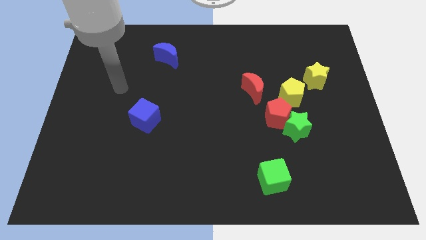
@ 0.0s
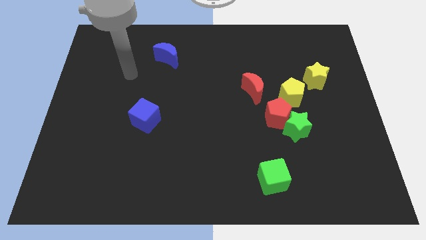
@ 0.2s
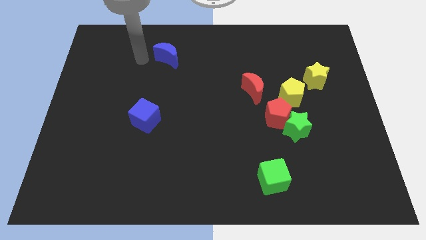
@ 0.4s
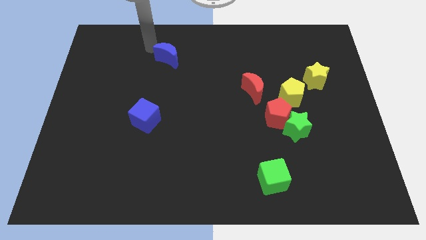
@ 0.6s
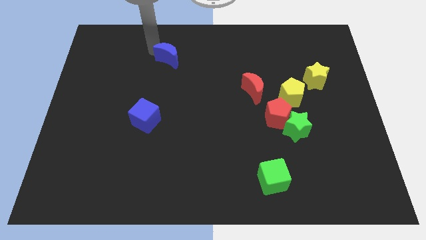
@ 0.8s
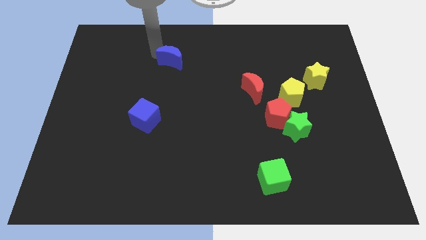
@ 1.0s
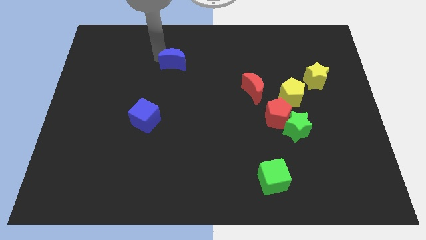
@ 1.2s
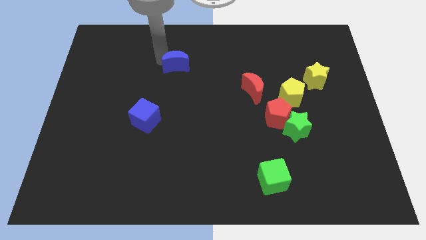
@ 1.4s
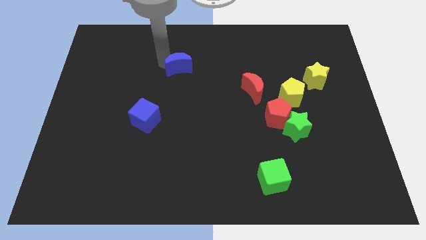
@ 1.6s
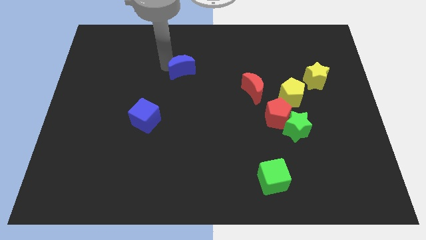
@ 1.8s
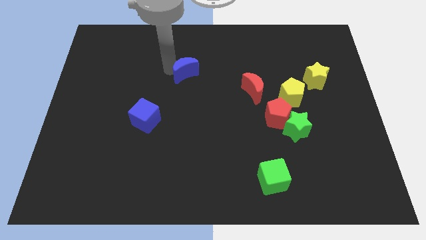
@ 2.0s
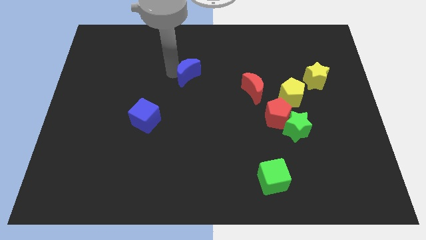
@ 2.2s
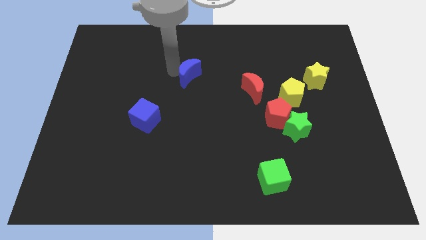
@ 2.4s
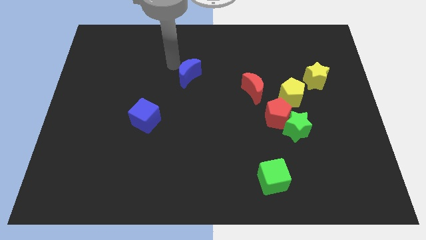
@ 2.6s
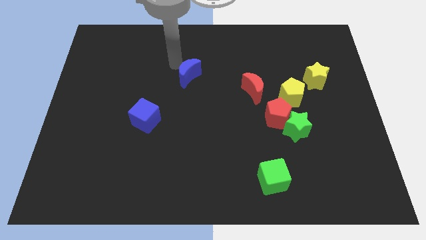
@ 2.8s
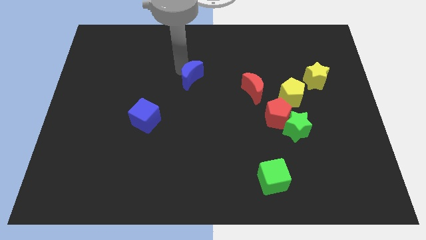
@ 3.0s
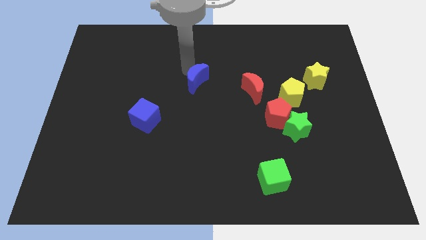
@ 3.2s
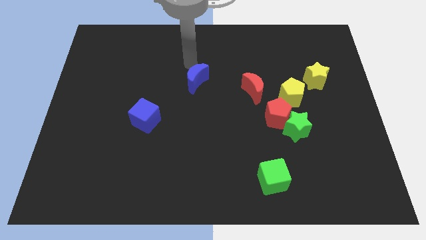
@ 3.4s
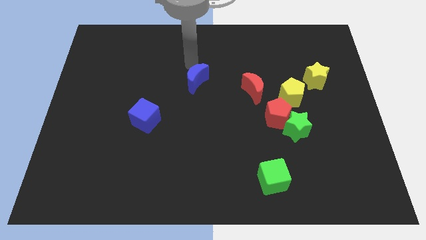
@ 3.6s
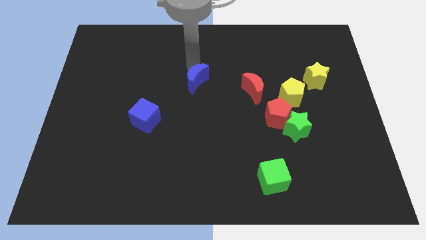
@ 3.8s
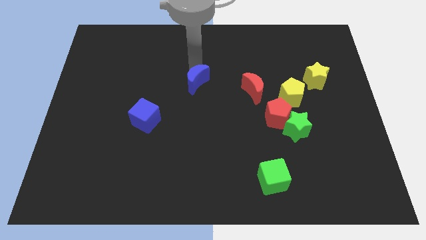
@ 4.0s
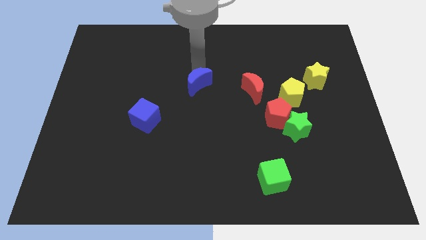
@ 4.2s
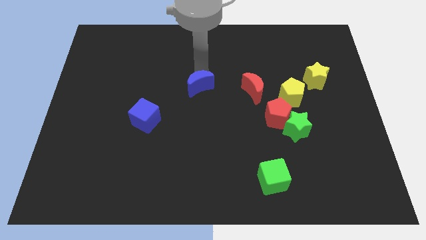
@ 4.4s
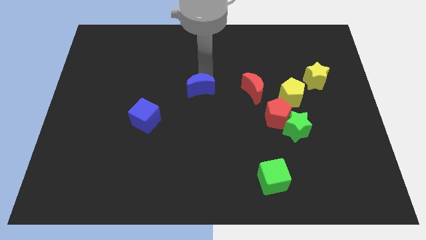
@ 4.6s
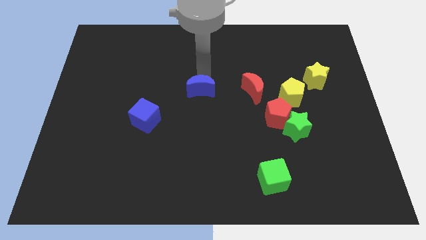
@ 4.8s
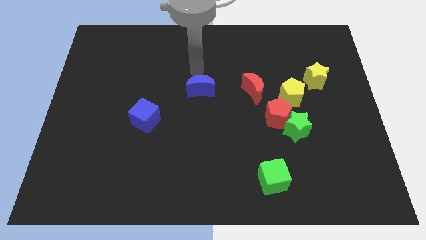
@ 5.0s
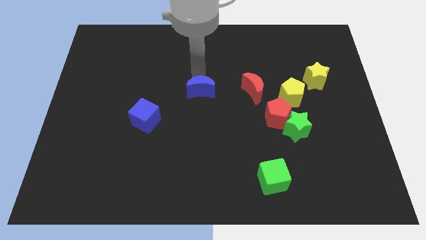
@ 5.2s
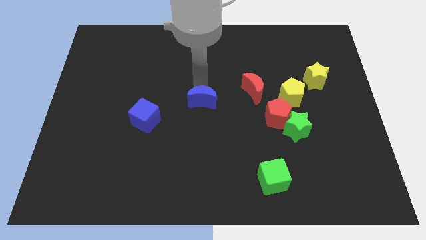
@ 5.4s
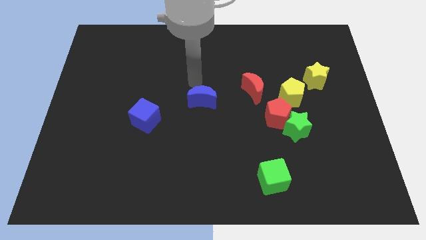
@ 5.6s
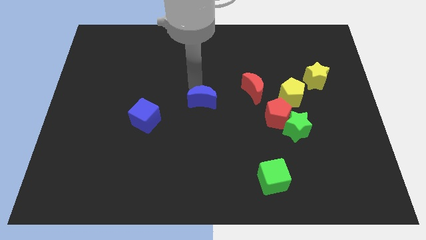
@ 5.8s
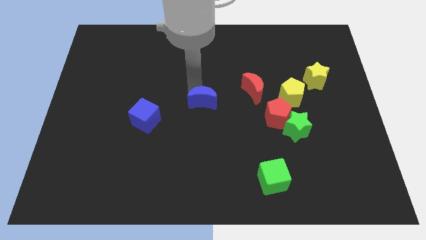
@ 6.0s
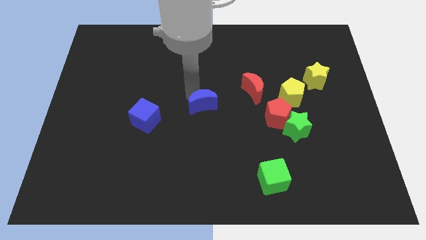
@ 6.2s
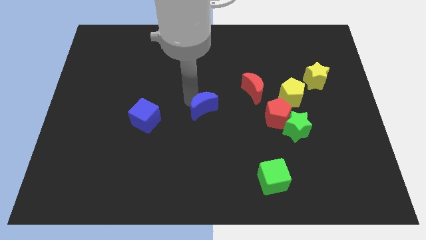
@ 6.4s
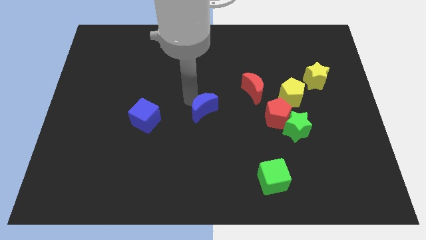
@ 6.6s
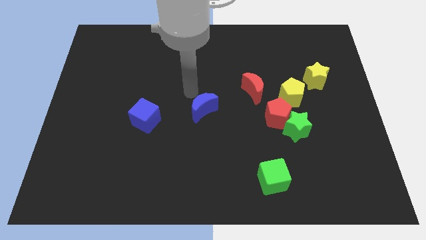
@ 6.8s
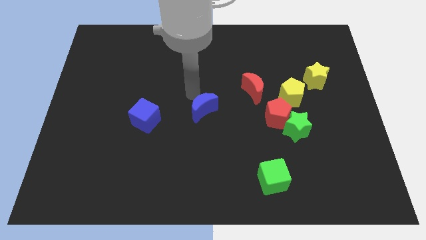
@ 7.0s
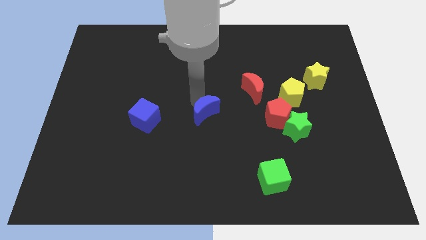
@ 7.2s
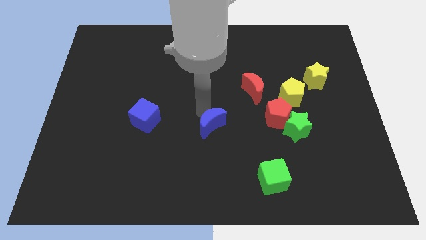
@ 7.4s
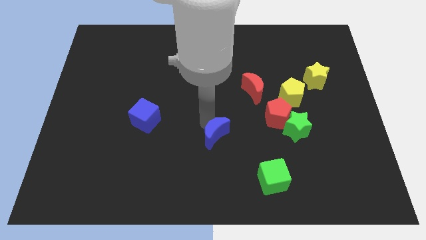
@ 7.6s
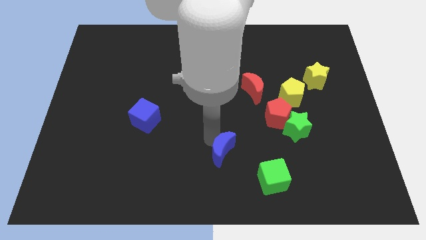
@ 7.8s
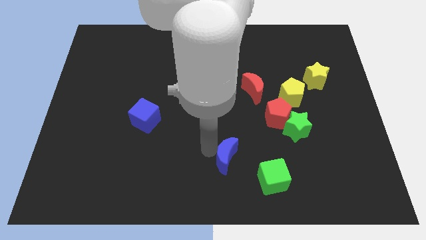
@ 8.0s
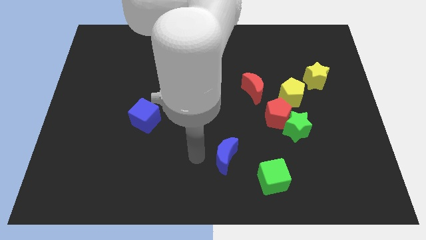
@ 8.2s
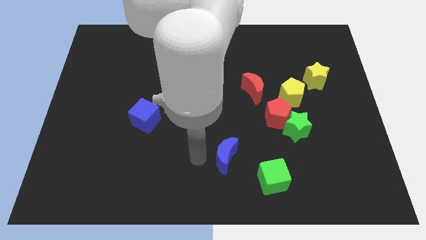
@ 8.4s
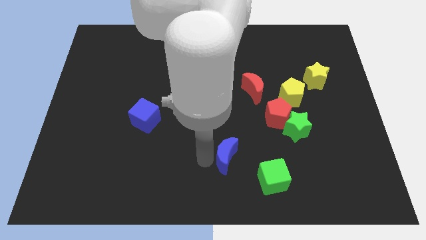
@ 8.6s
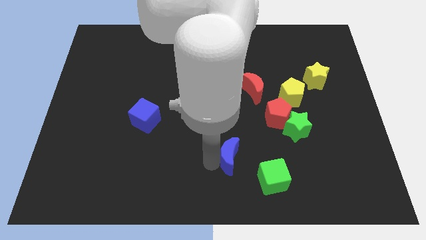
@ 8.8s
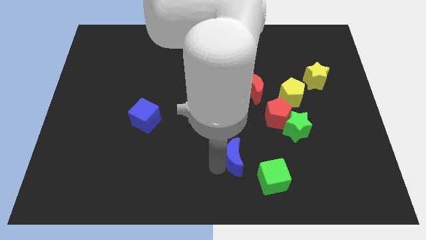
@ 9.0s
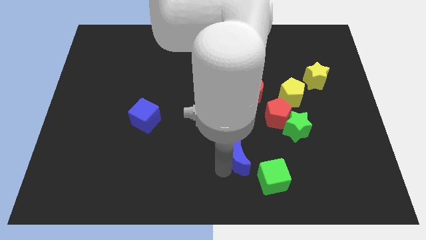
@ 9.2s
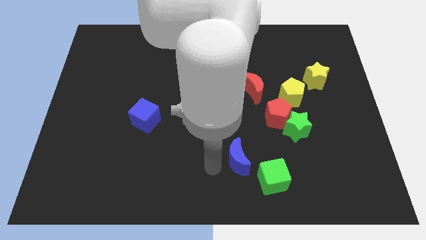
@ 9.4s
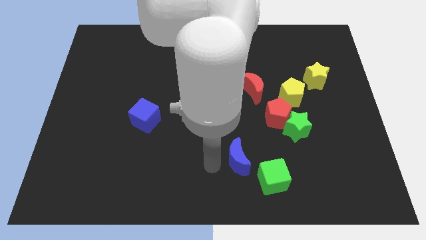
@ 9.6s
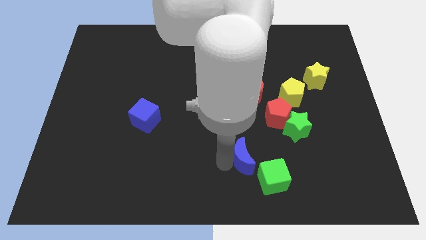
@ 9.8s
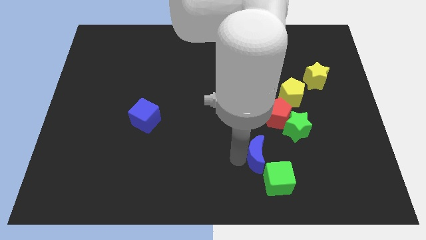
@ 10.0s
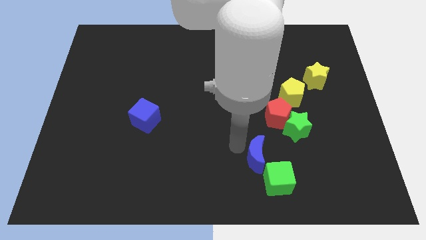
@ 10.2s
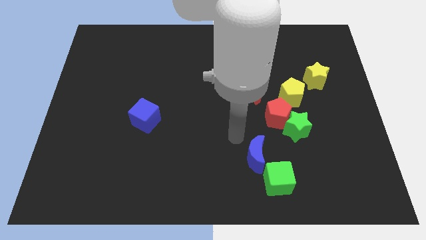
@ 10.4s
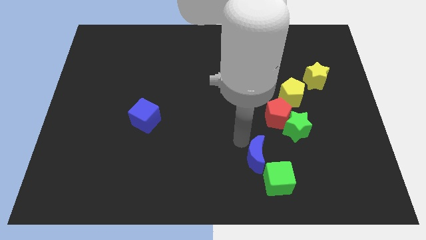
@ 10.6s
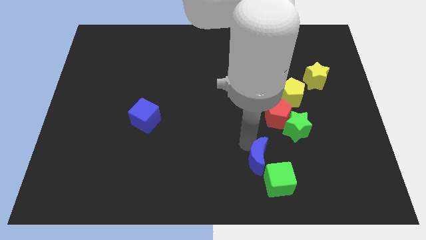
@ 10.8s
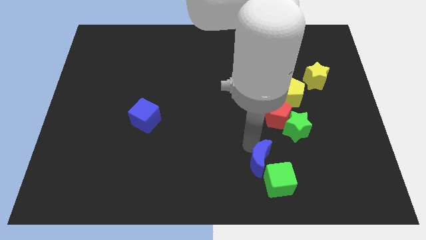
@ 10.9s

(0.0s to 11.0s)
slide the blue moon to the green cube

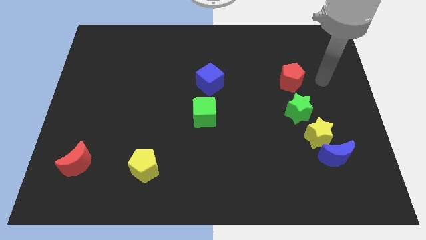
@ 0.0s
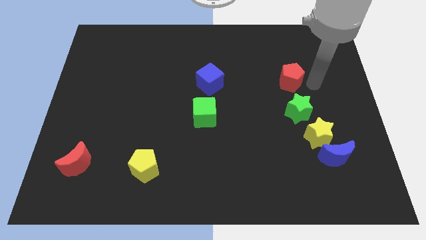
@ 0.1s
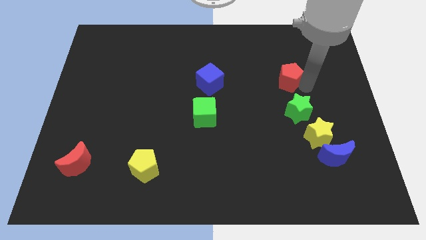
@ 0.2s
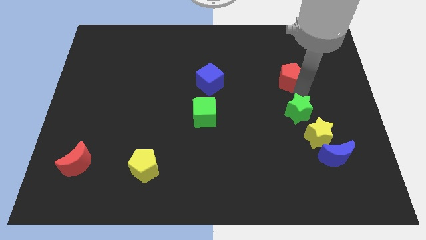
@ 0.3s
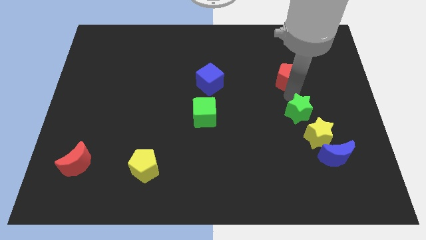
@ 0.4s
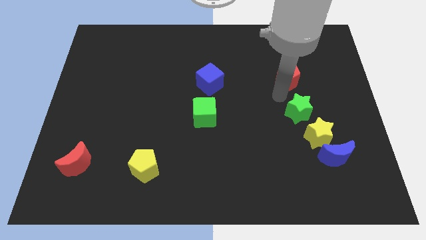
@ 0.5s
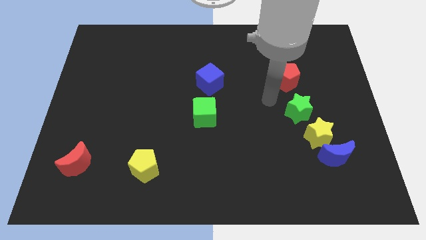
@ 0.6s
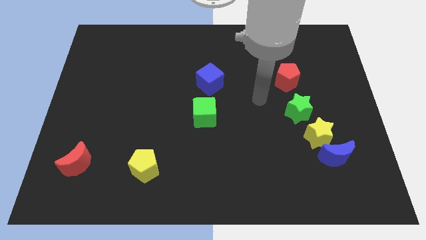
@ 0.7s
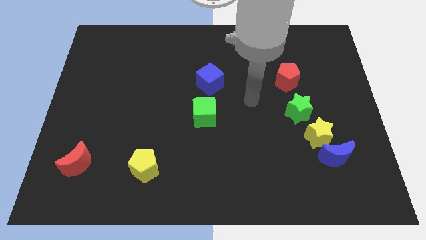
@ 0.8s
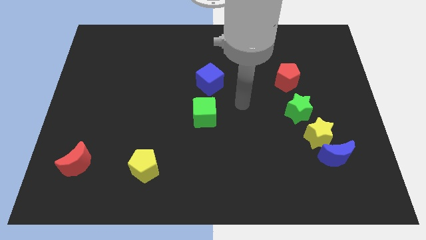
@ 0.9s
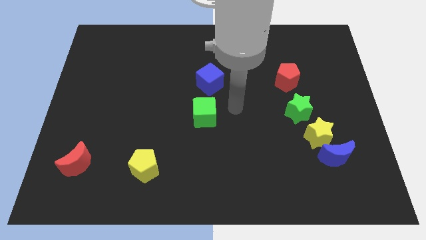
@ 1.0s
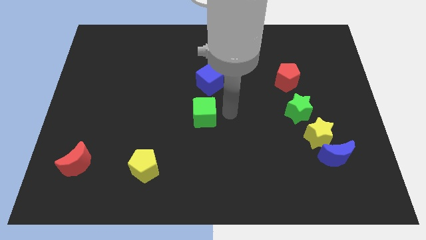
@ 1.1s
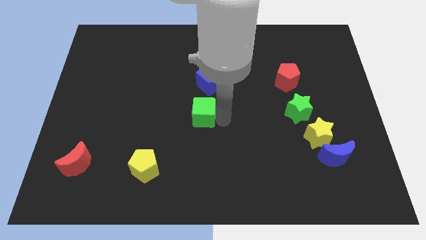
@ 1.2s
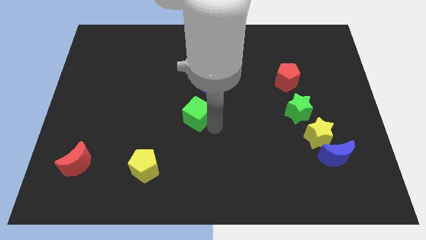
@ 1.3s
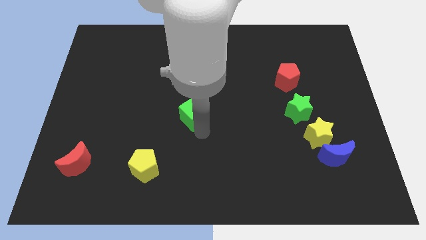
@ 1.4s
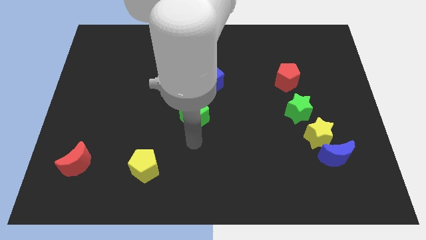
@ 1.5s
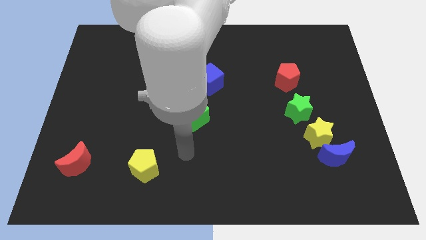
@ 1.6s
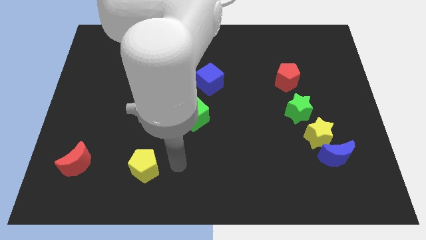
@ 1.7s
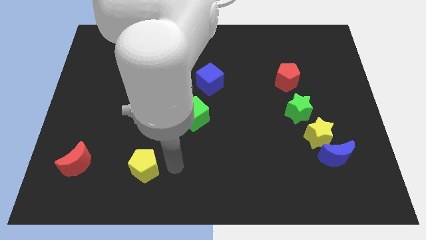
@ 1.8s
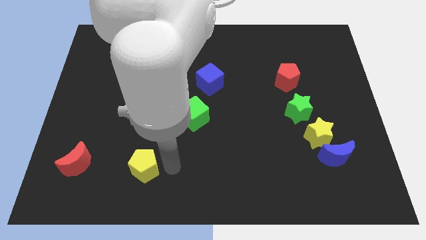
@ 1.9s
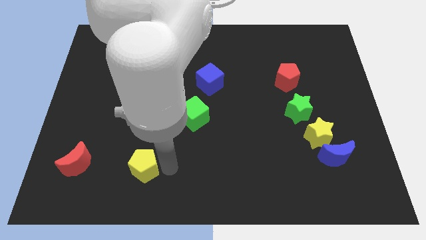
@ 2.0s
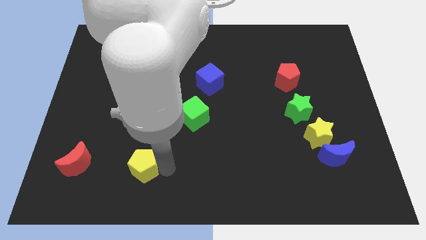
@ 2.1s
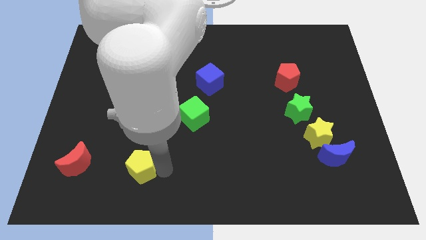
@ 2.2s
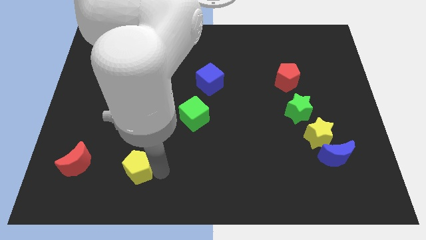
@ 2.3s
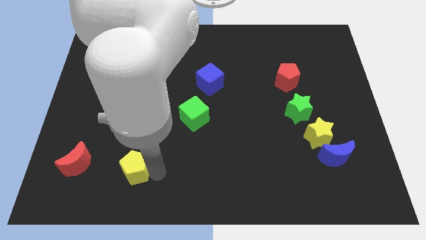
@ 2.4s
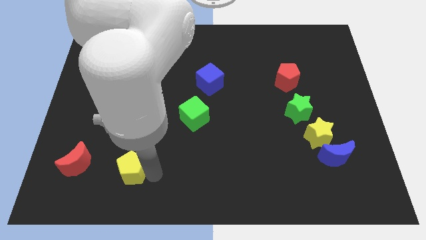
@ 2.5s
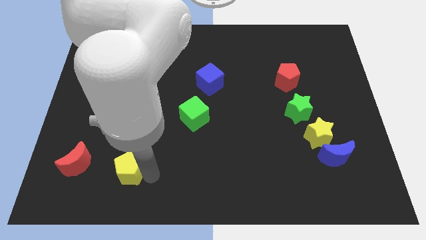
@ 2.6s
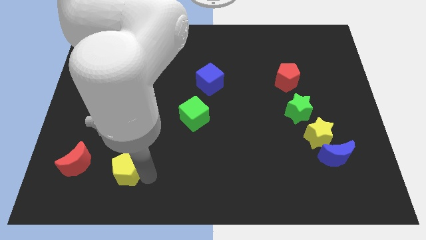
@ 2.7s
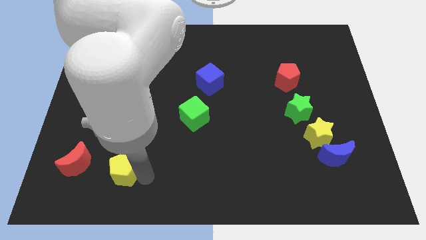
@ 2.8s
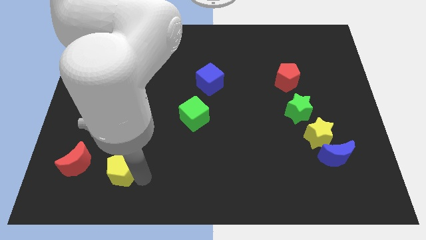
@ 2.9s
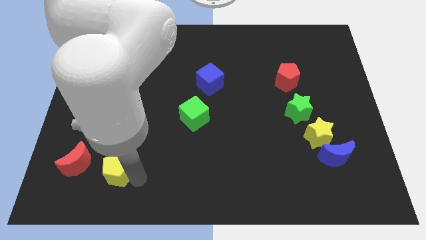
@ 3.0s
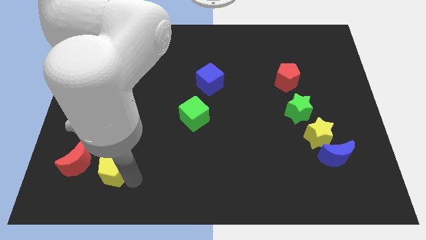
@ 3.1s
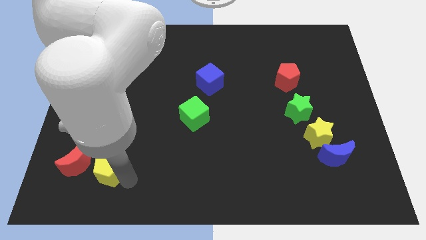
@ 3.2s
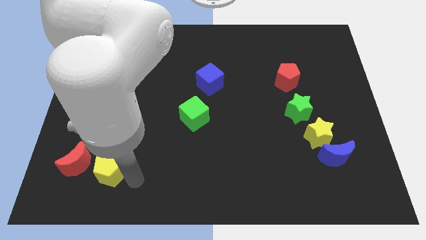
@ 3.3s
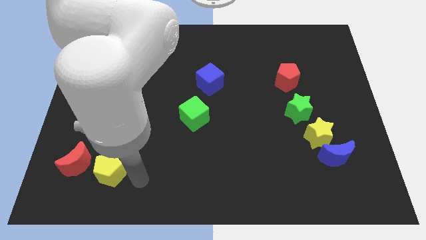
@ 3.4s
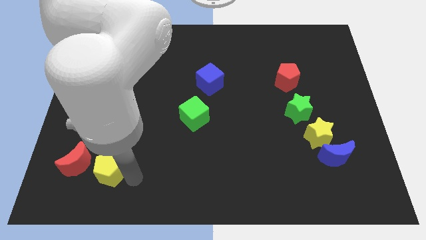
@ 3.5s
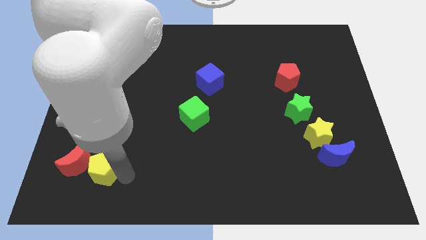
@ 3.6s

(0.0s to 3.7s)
put the yellow pentagon close to the red moon
